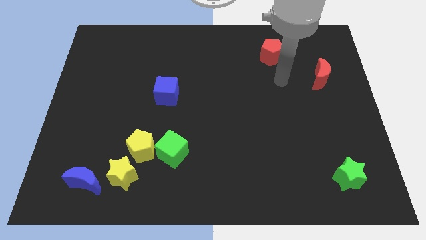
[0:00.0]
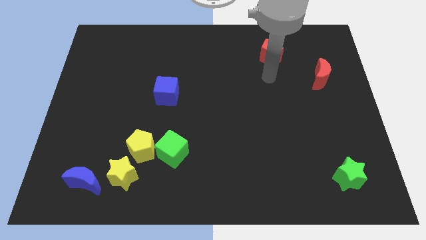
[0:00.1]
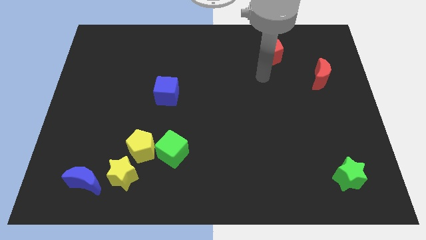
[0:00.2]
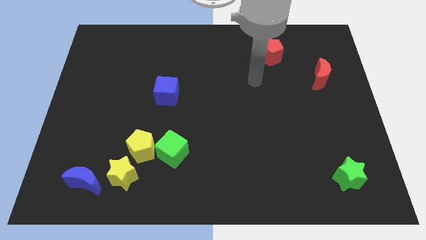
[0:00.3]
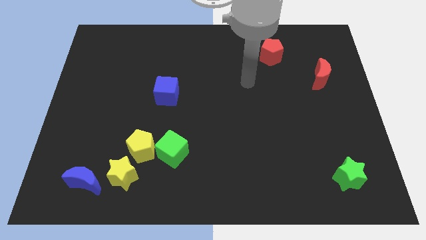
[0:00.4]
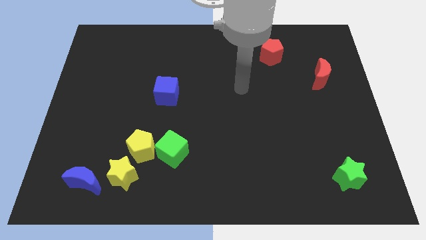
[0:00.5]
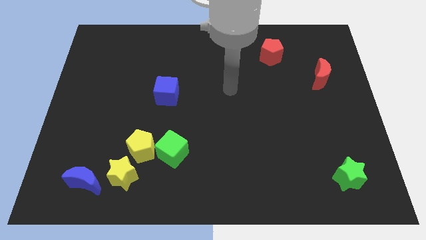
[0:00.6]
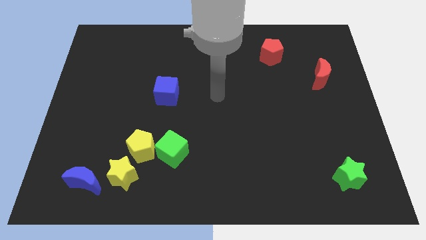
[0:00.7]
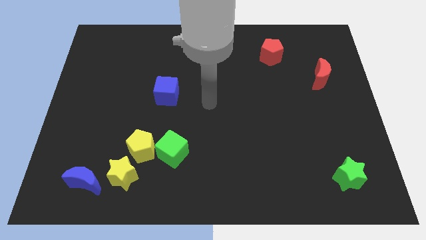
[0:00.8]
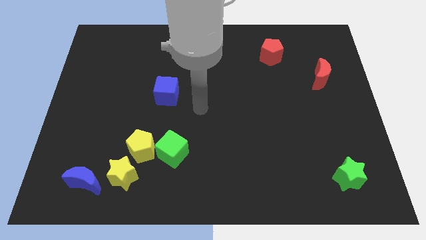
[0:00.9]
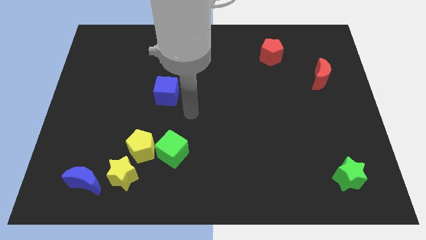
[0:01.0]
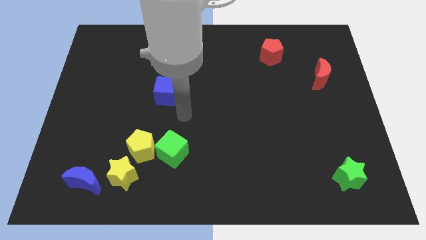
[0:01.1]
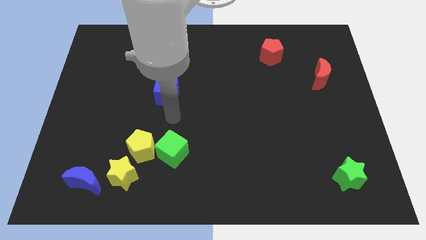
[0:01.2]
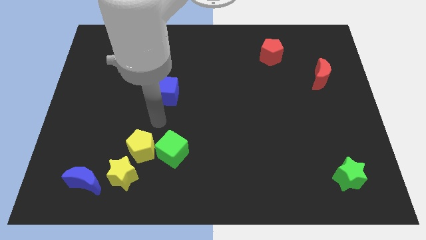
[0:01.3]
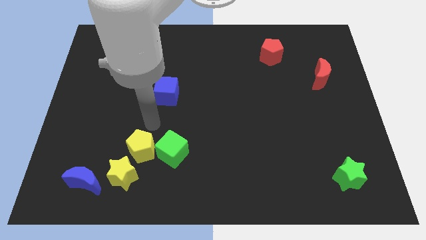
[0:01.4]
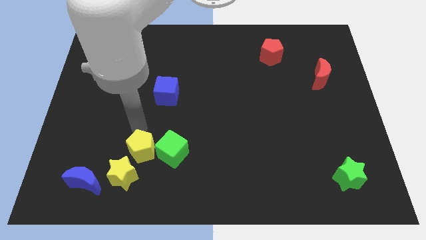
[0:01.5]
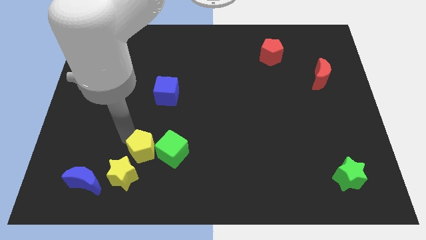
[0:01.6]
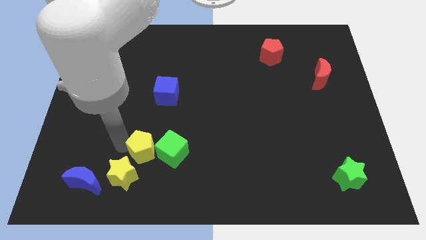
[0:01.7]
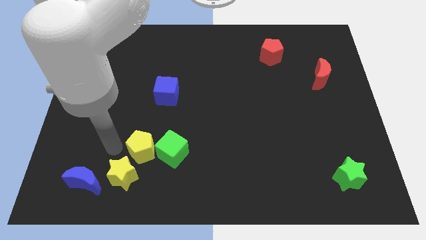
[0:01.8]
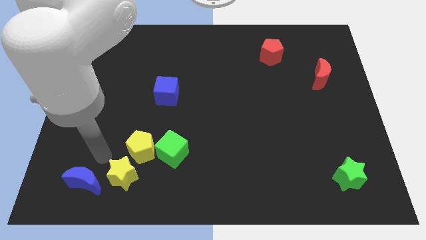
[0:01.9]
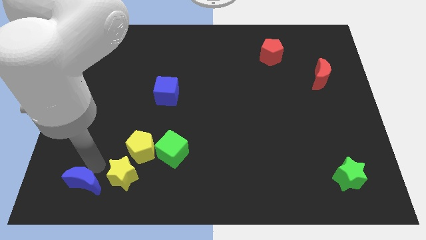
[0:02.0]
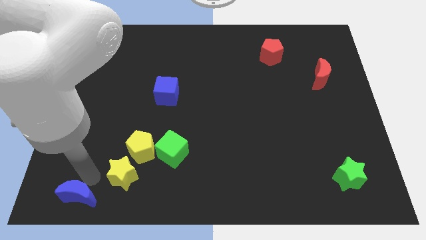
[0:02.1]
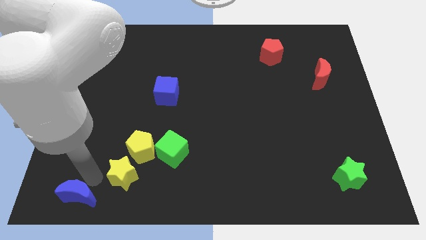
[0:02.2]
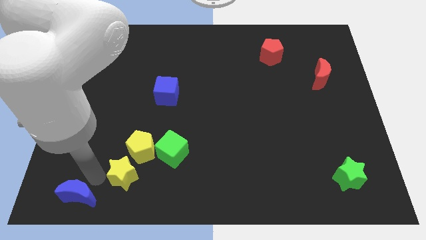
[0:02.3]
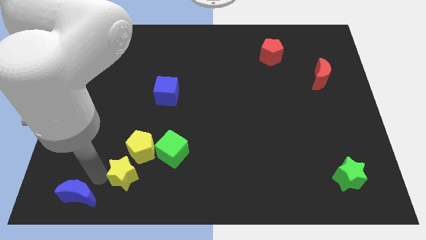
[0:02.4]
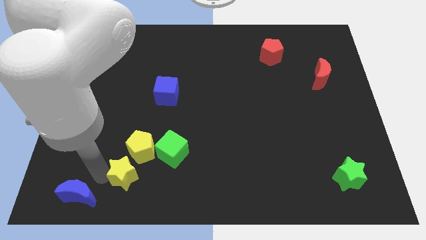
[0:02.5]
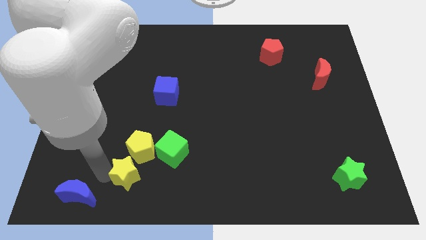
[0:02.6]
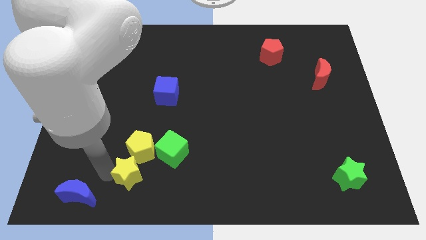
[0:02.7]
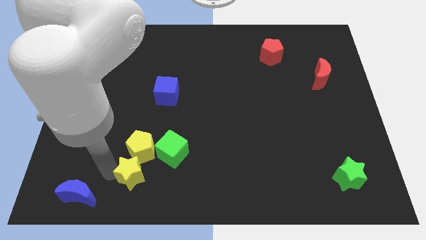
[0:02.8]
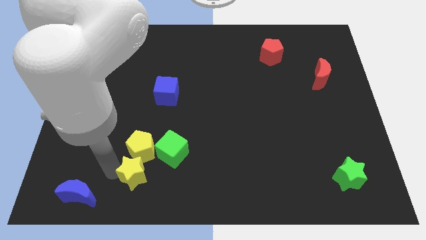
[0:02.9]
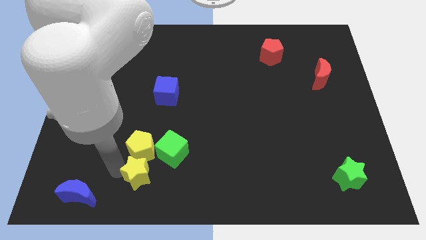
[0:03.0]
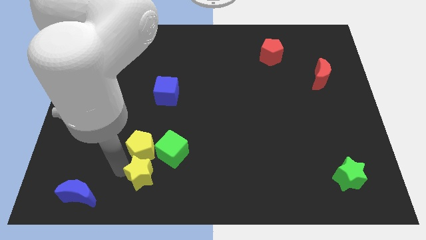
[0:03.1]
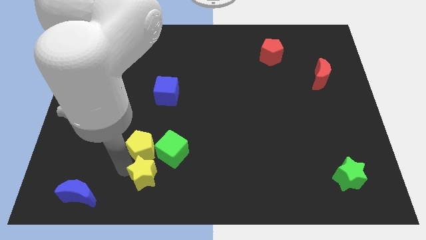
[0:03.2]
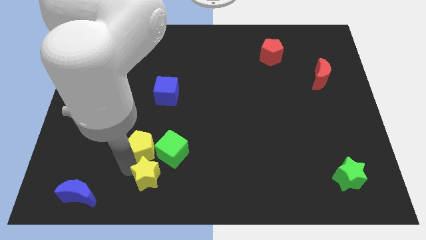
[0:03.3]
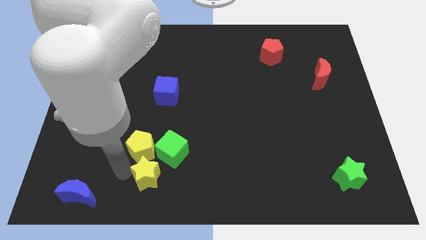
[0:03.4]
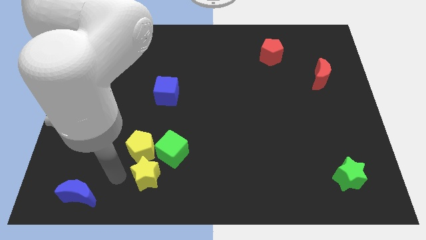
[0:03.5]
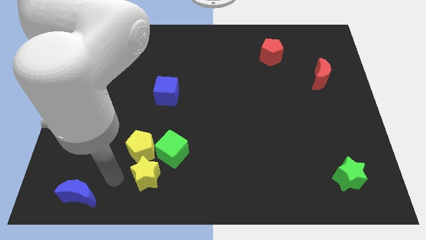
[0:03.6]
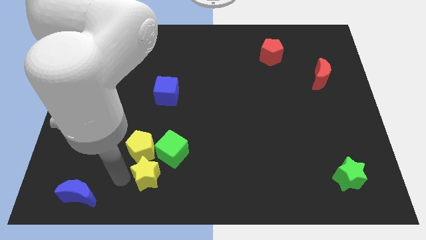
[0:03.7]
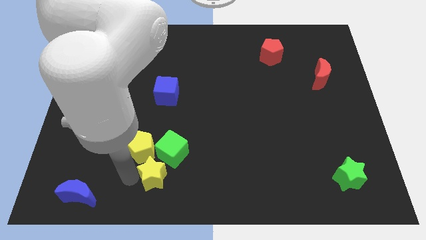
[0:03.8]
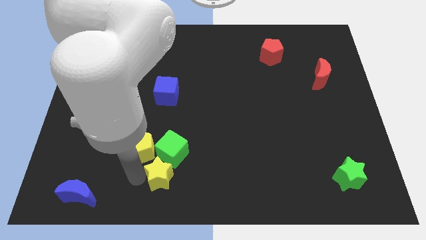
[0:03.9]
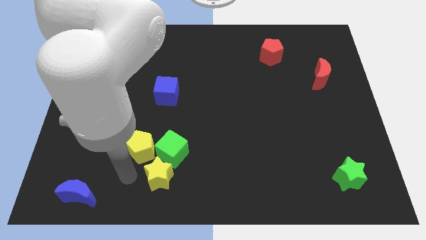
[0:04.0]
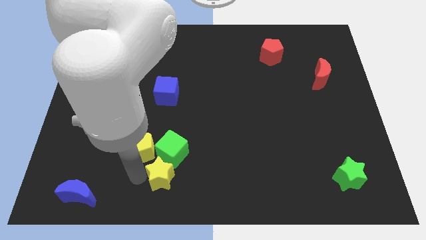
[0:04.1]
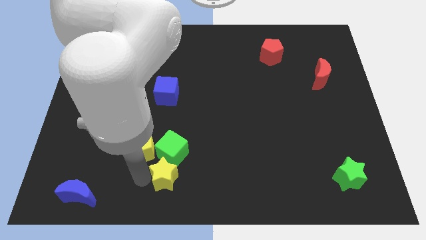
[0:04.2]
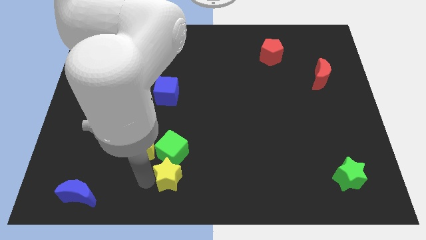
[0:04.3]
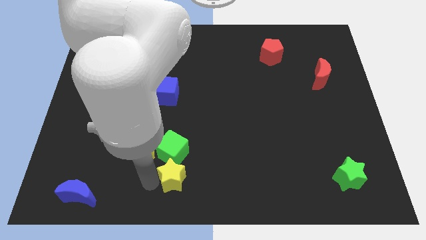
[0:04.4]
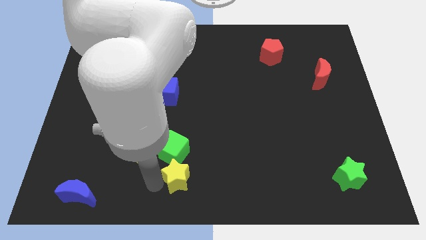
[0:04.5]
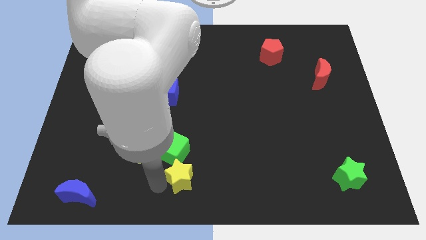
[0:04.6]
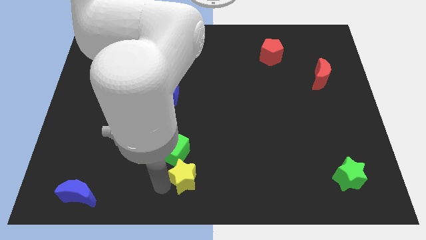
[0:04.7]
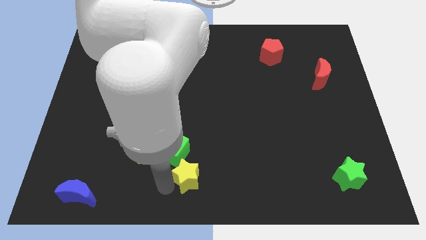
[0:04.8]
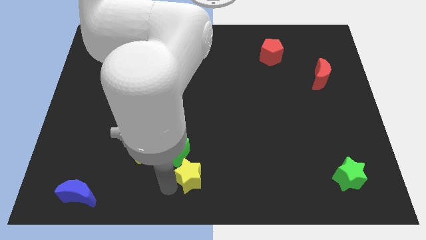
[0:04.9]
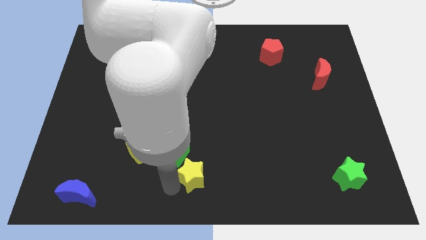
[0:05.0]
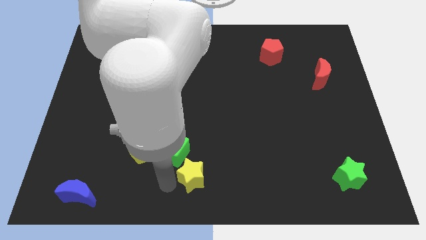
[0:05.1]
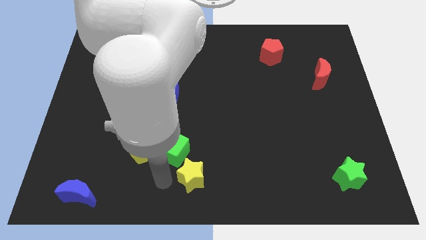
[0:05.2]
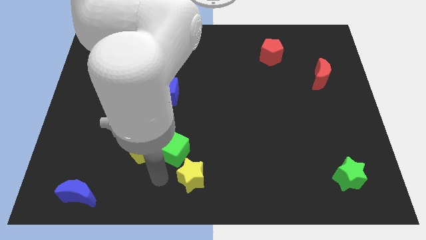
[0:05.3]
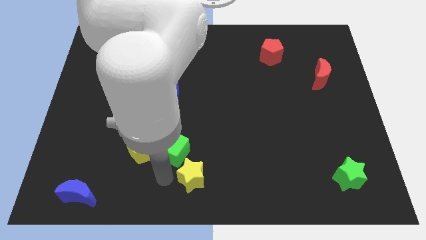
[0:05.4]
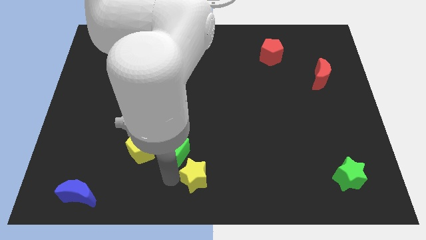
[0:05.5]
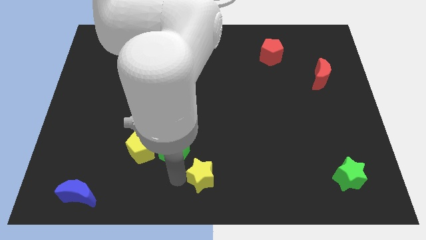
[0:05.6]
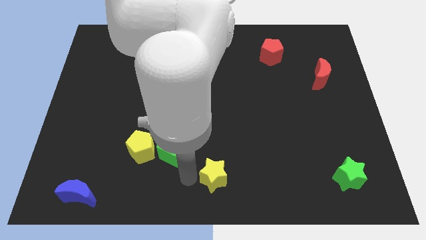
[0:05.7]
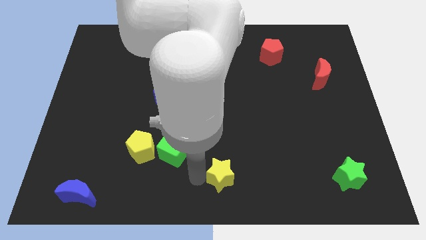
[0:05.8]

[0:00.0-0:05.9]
push the yellow star to the right

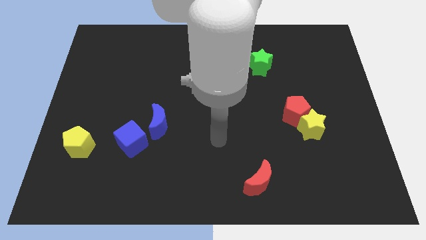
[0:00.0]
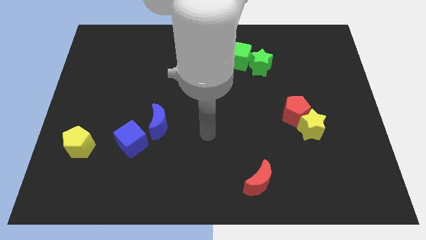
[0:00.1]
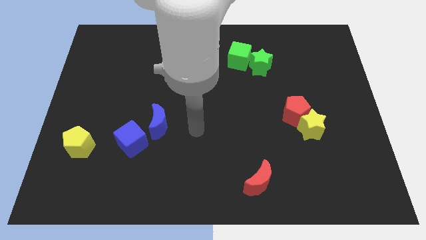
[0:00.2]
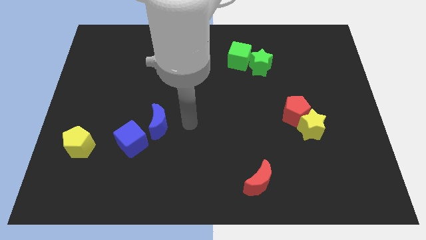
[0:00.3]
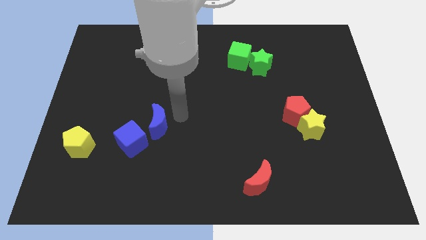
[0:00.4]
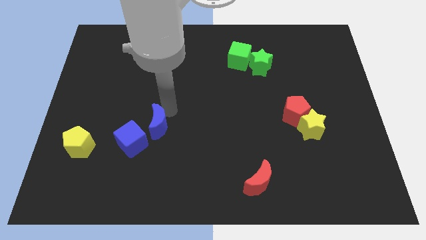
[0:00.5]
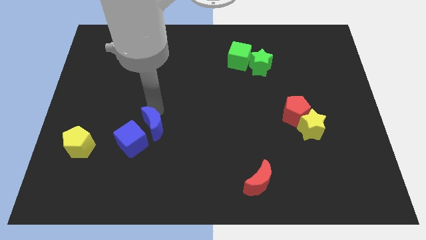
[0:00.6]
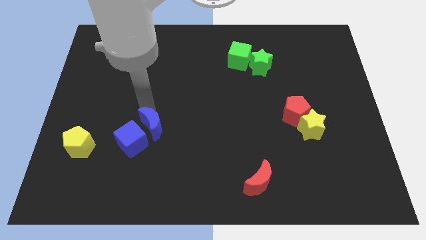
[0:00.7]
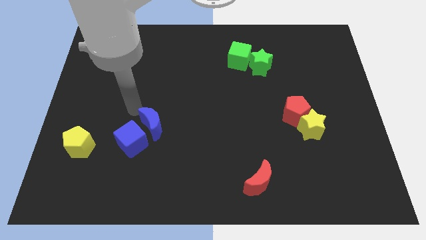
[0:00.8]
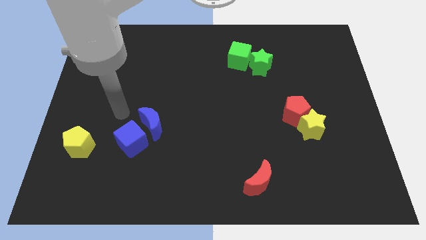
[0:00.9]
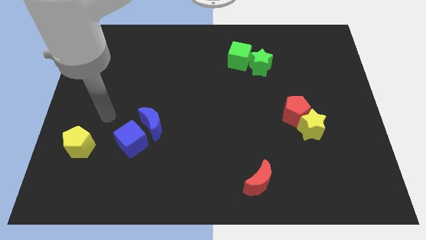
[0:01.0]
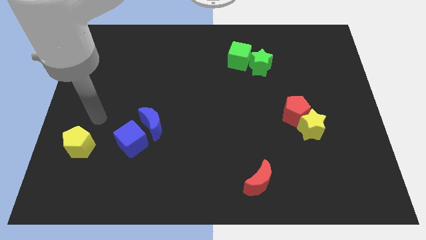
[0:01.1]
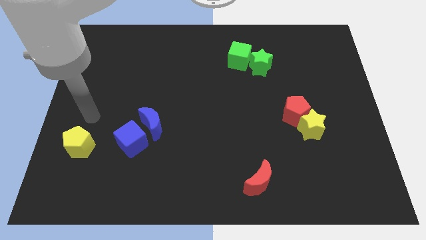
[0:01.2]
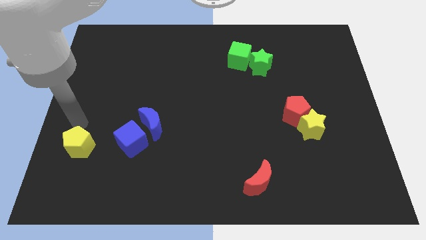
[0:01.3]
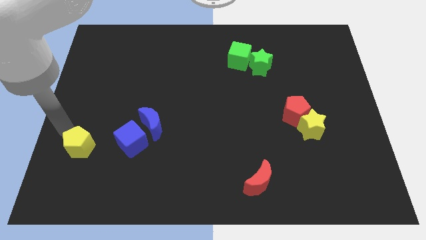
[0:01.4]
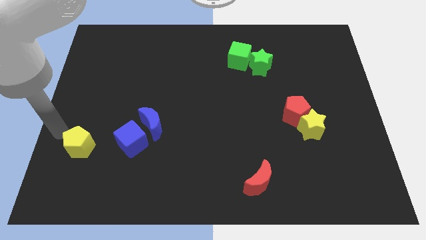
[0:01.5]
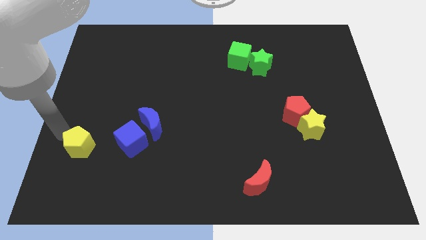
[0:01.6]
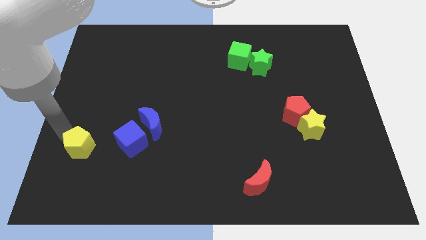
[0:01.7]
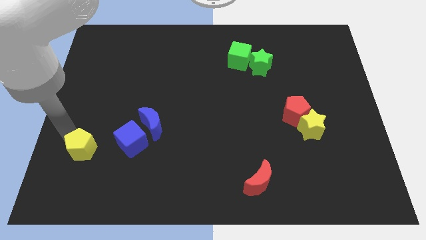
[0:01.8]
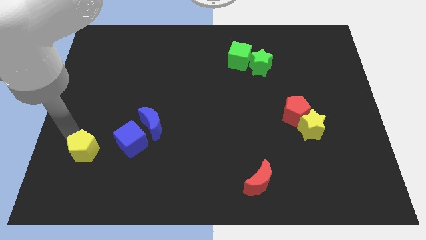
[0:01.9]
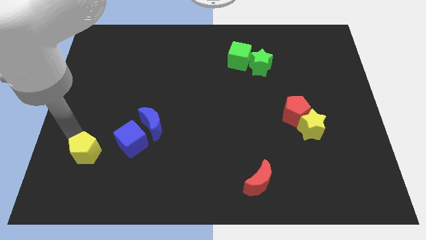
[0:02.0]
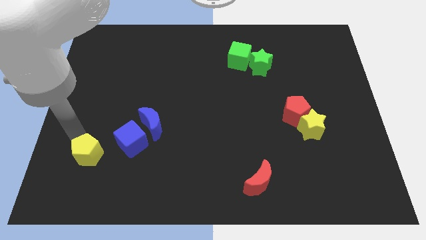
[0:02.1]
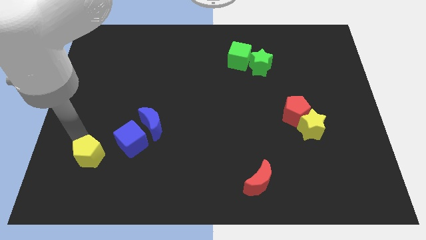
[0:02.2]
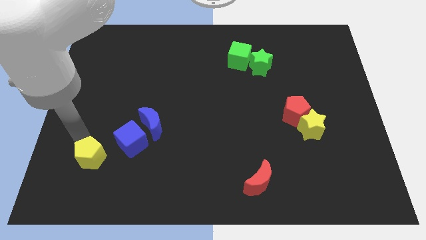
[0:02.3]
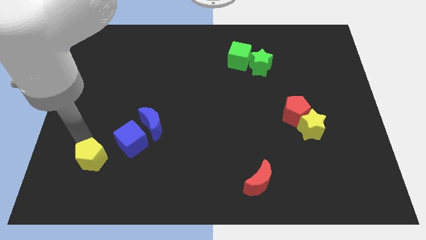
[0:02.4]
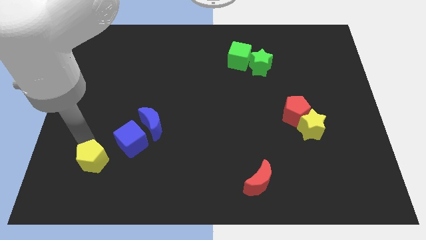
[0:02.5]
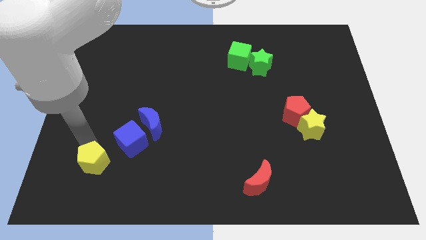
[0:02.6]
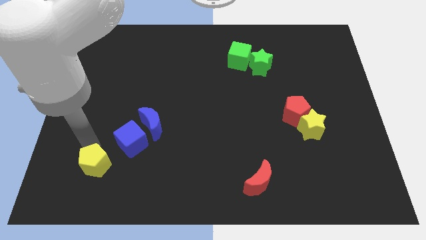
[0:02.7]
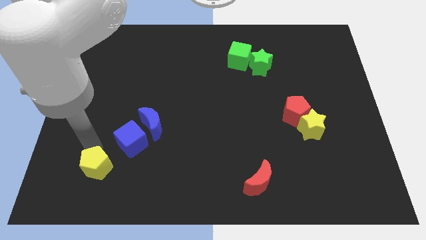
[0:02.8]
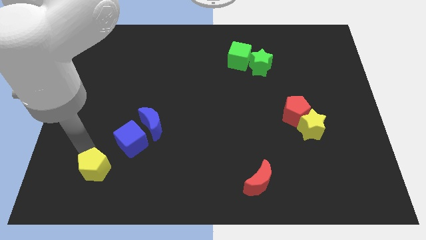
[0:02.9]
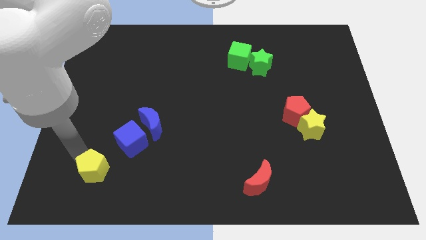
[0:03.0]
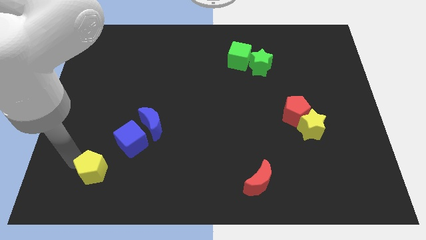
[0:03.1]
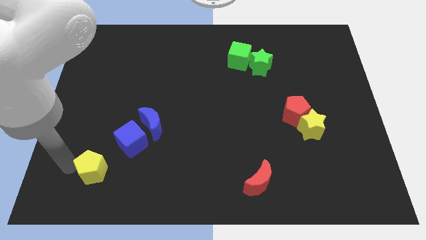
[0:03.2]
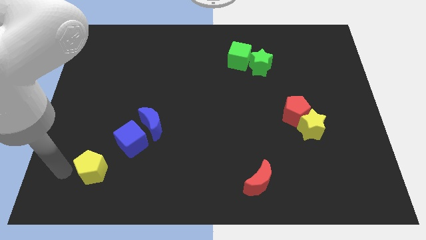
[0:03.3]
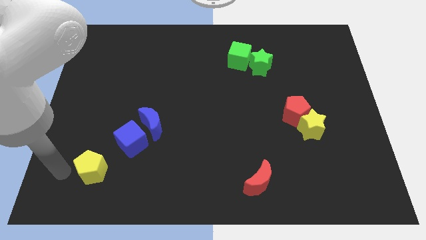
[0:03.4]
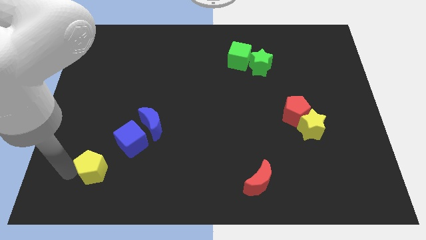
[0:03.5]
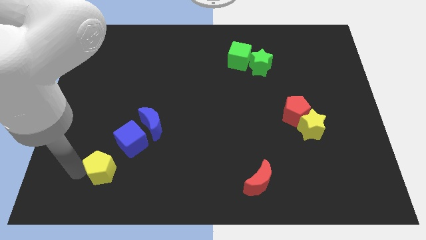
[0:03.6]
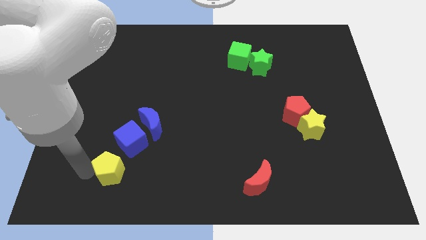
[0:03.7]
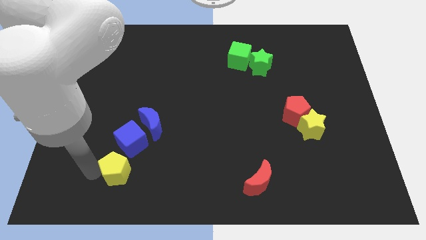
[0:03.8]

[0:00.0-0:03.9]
push the yellow pentagon somewhat right
